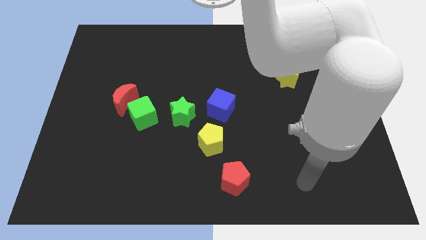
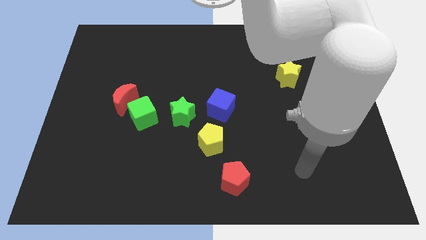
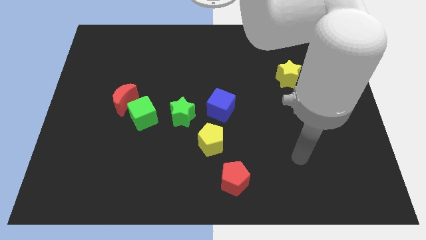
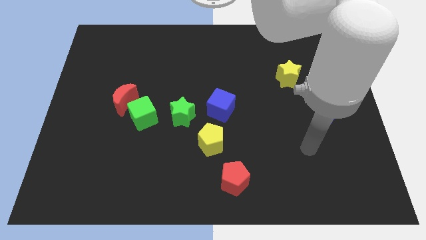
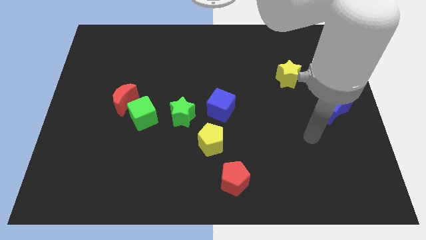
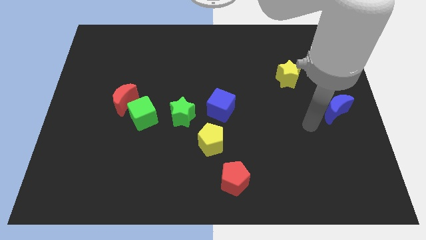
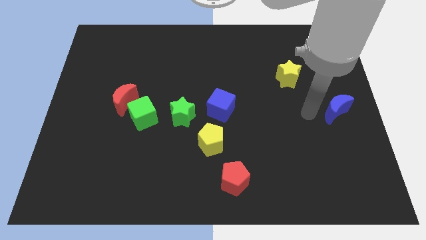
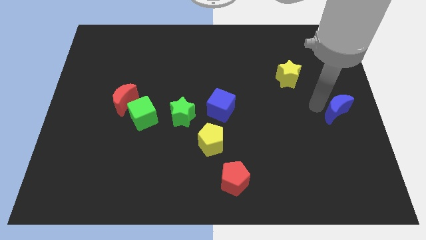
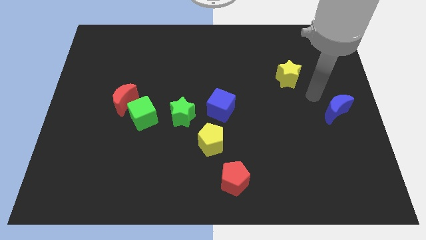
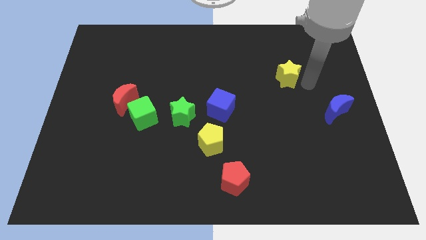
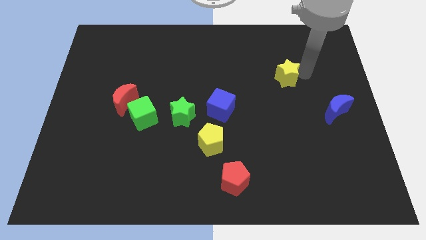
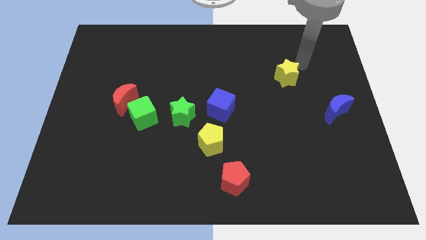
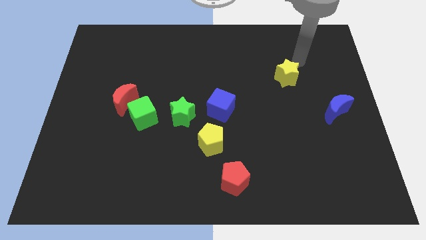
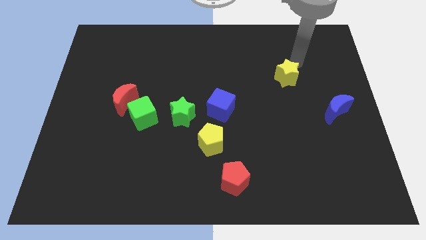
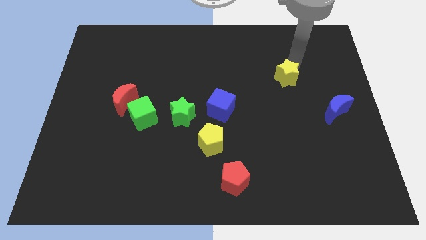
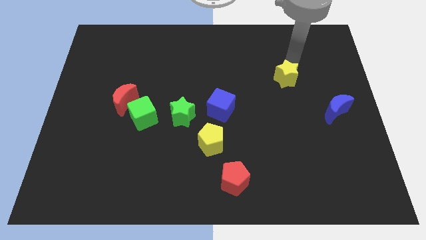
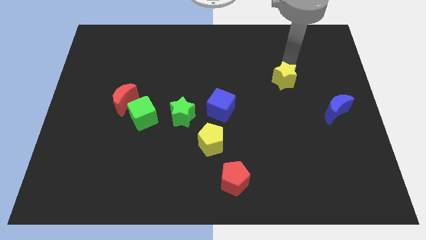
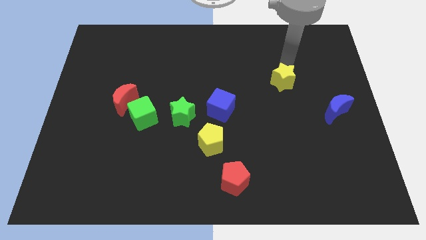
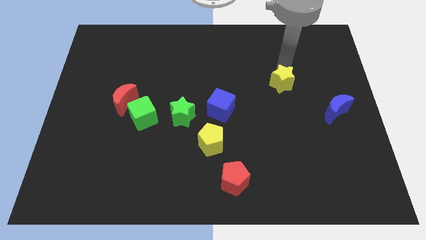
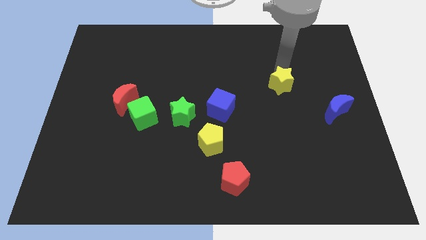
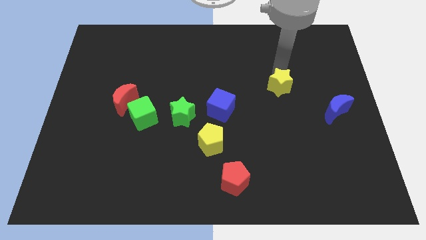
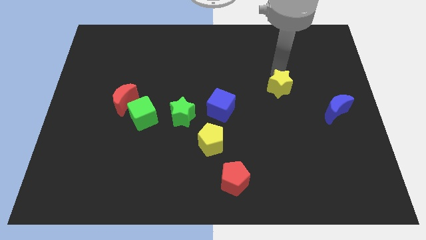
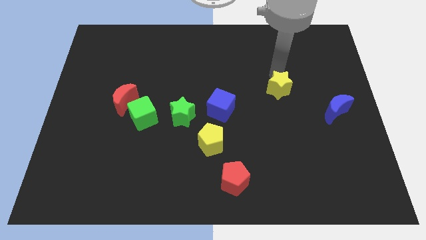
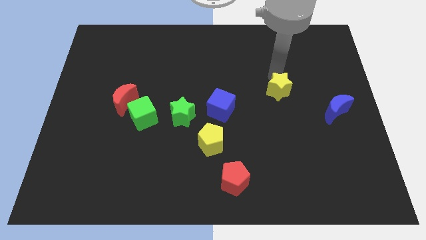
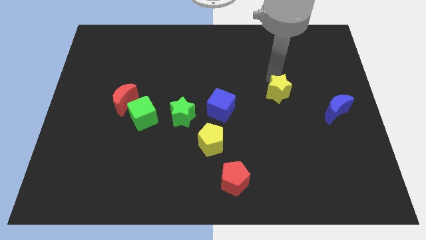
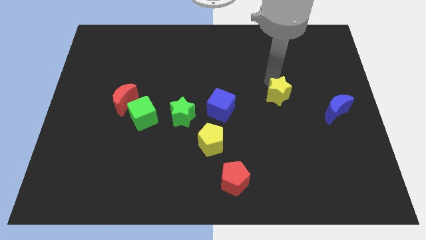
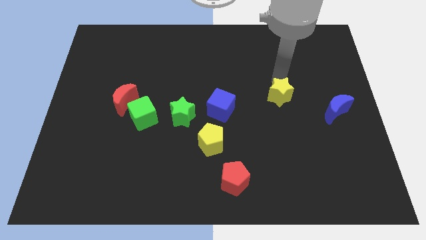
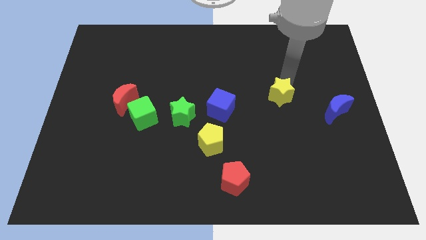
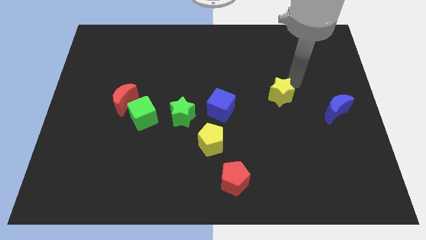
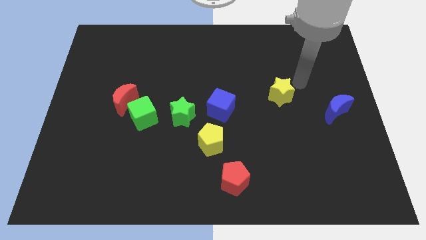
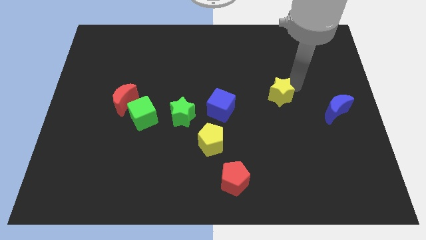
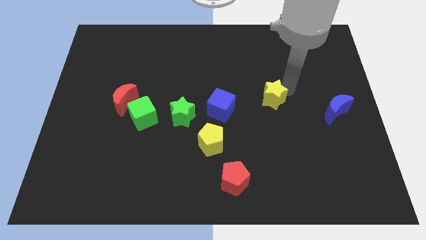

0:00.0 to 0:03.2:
push the yellow star diagonally downwards and to the left a little bit

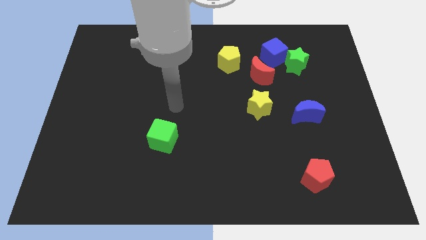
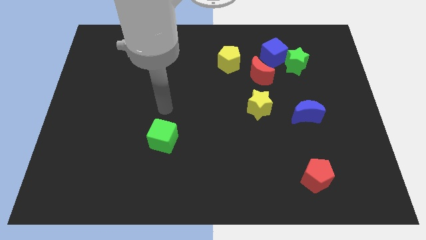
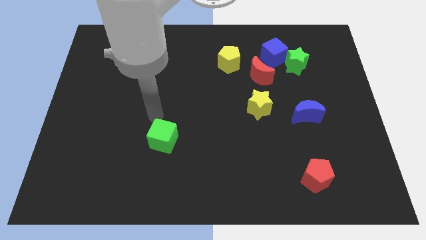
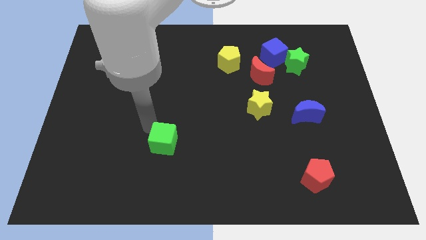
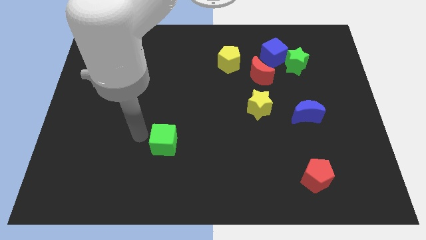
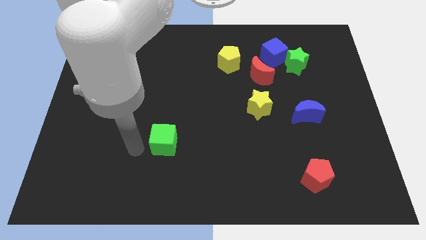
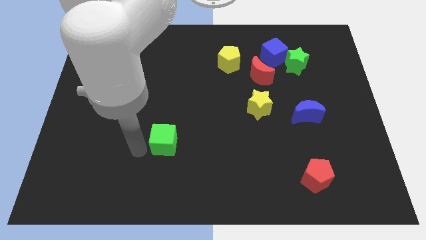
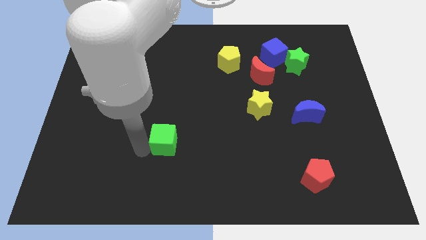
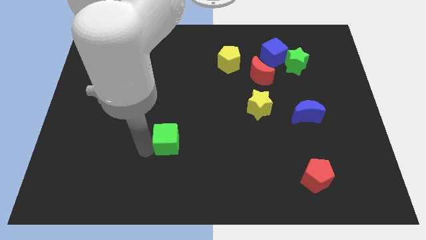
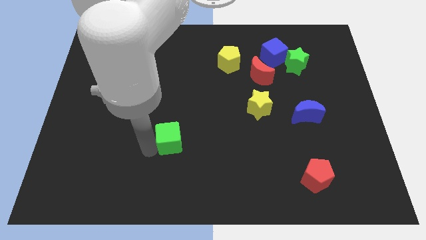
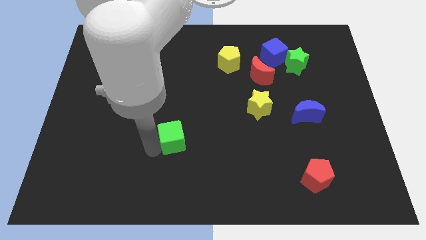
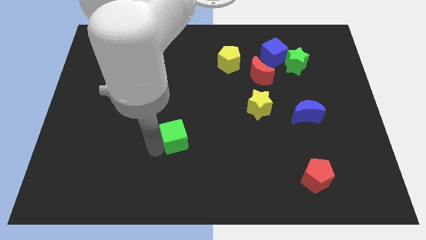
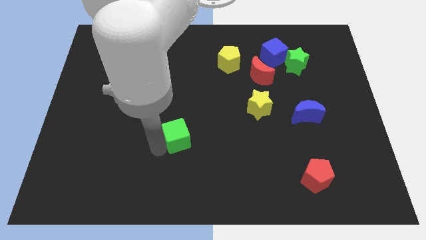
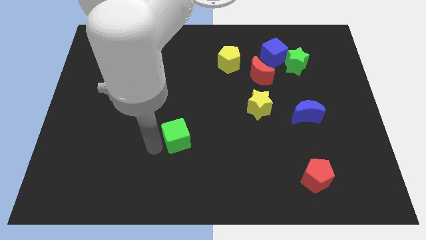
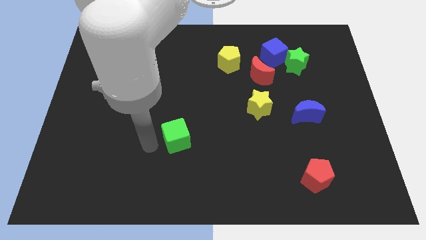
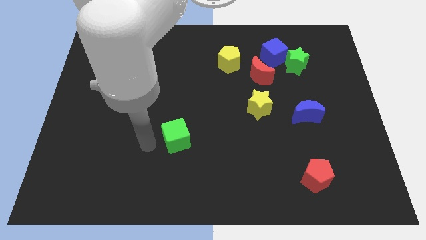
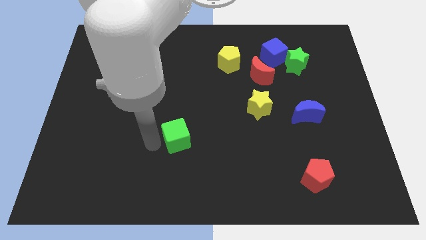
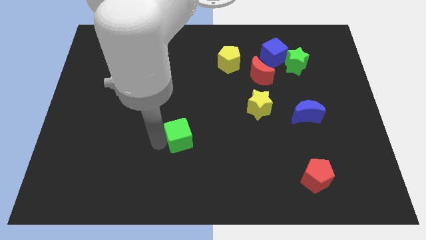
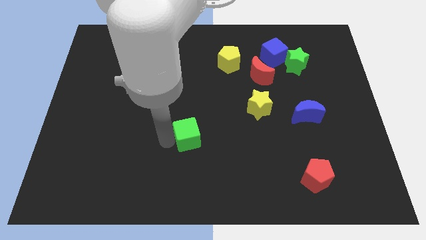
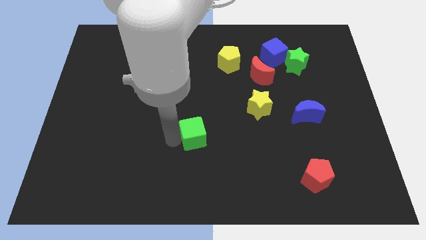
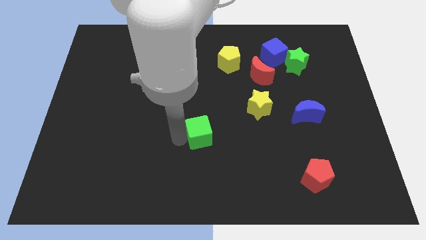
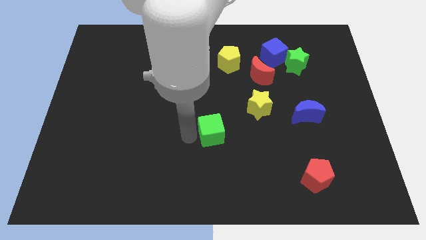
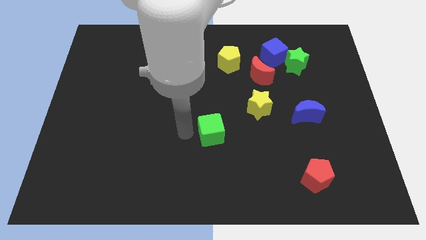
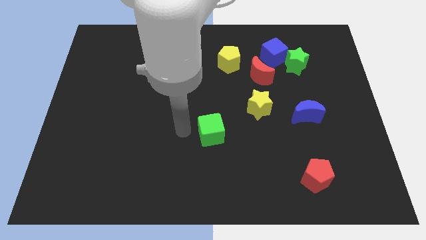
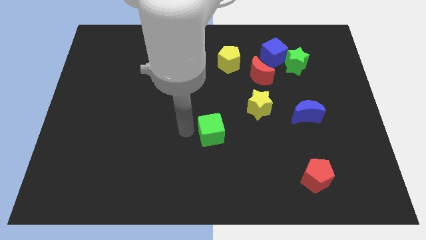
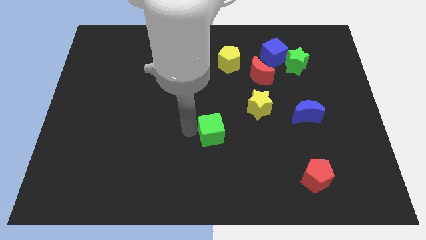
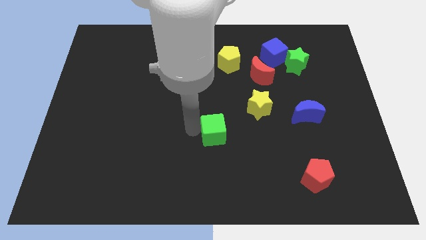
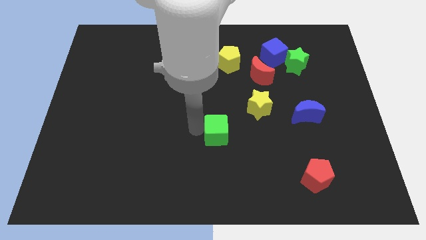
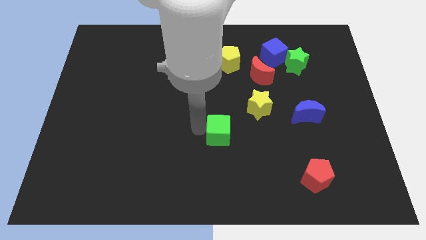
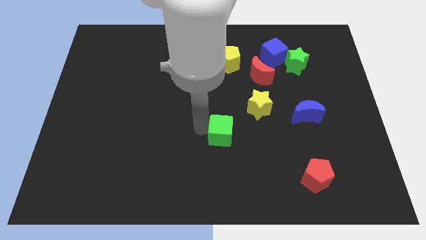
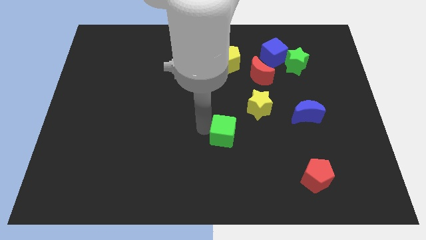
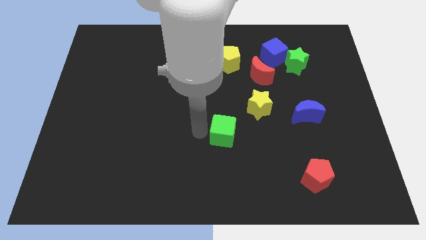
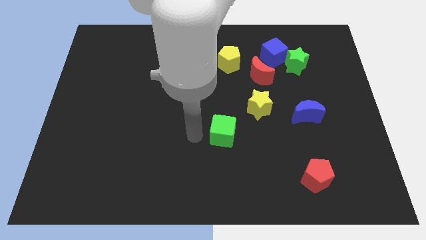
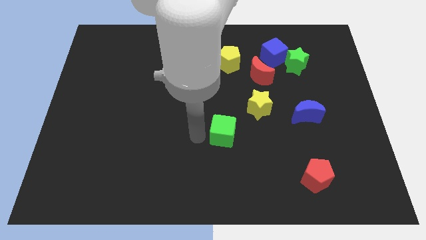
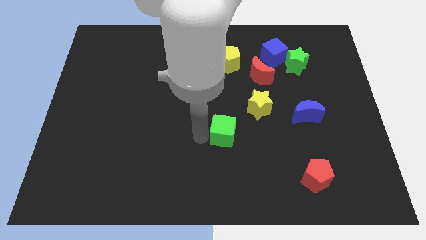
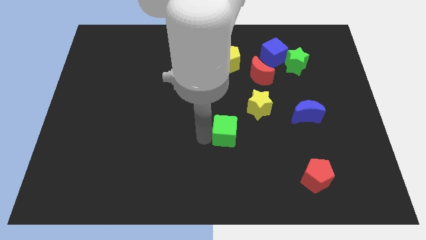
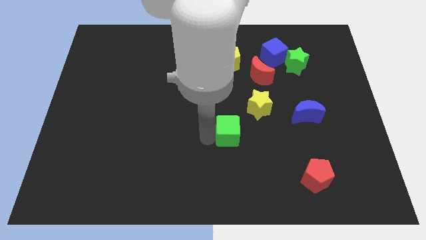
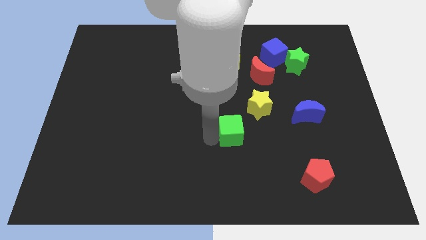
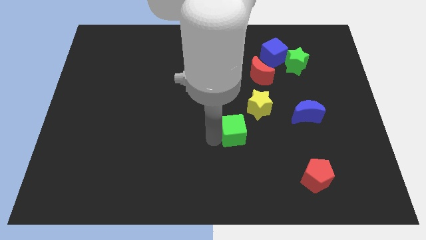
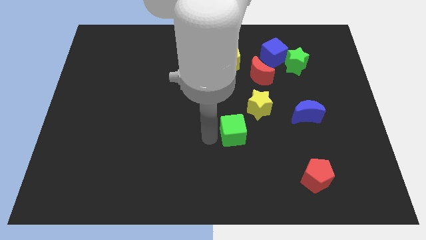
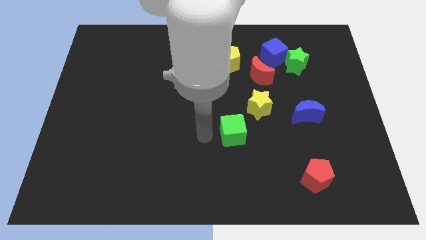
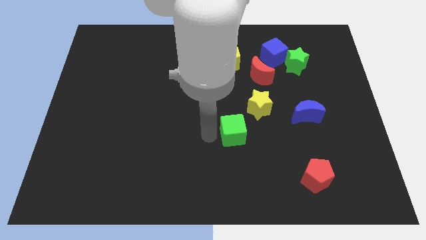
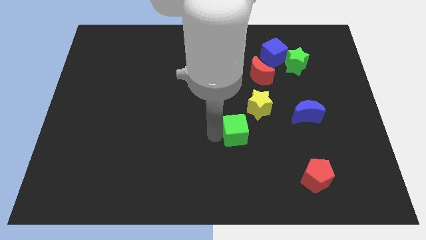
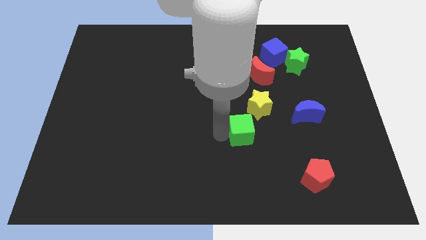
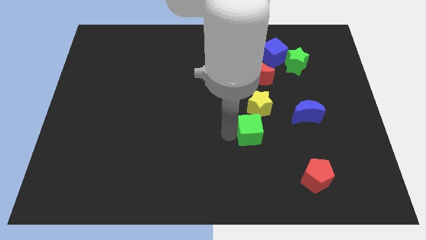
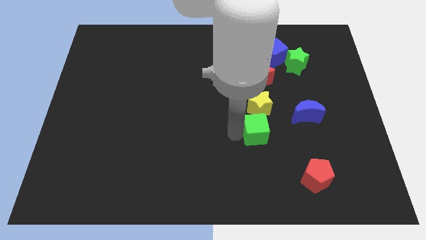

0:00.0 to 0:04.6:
move the green cube to the right

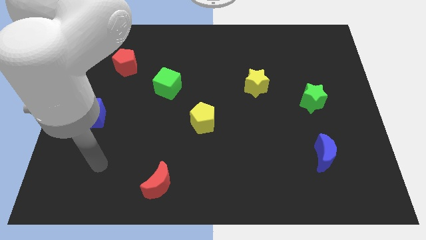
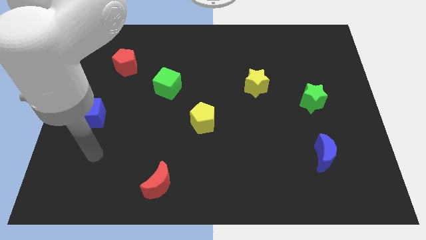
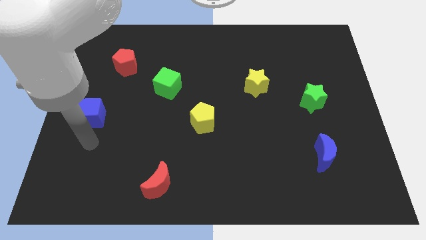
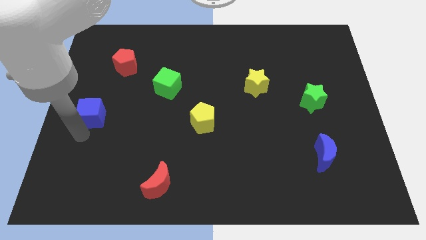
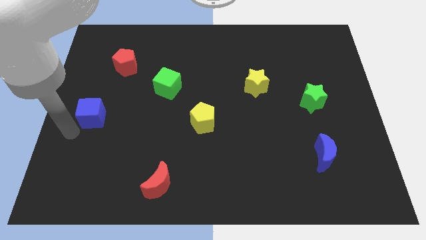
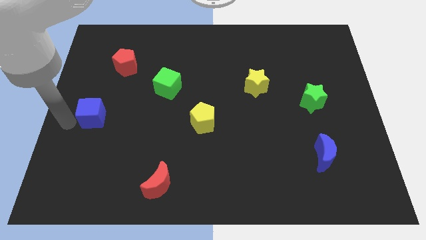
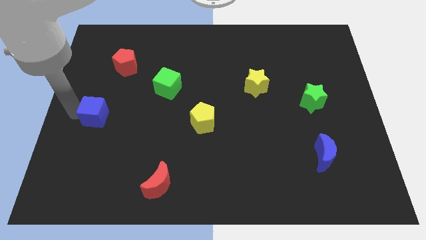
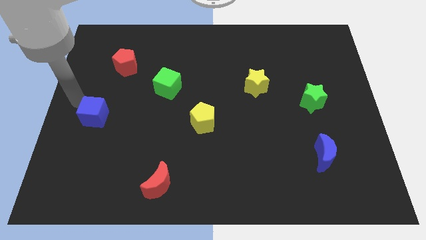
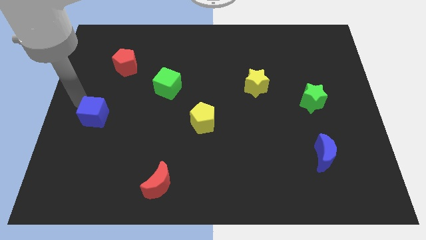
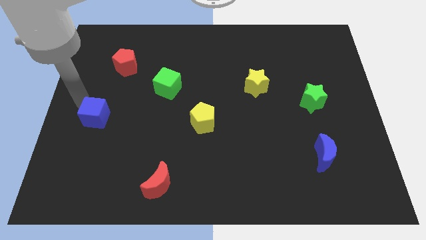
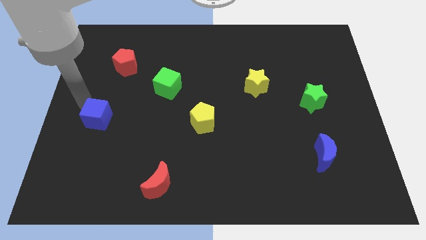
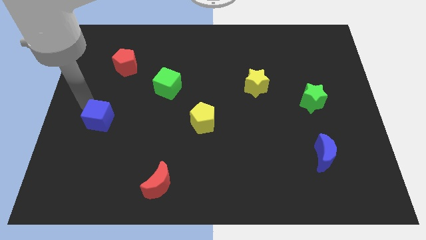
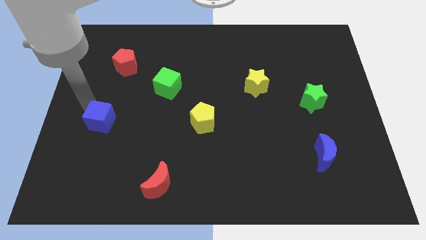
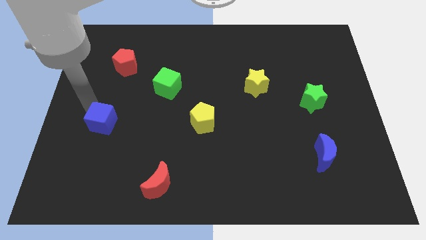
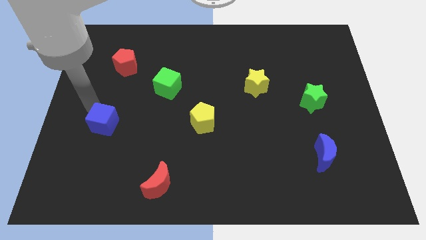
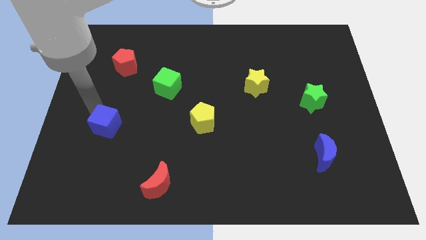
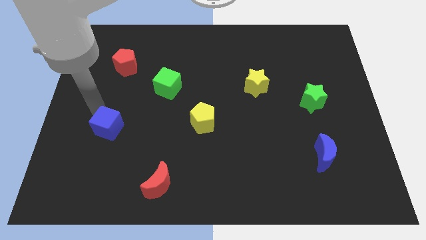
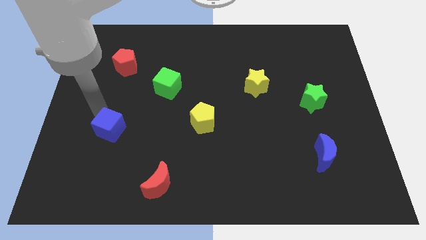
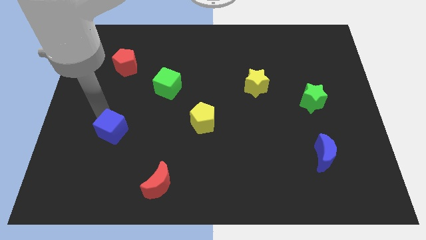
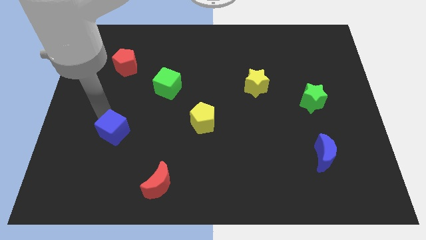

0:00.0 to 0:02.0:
slide the blue cube a little diagonally downwards and to the right
